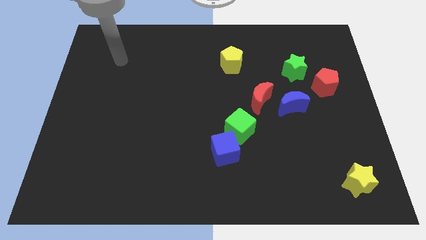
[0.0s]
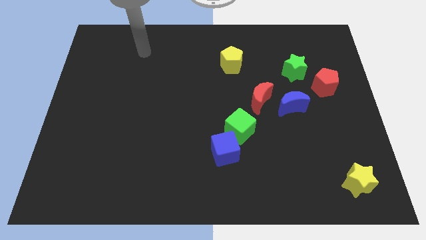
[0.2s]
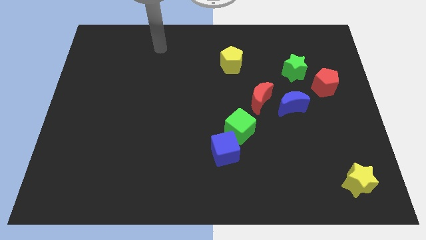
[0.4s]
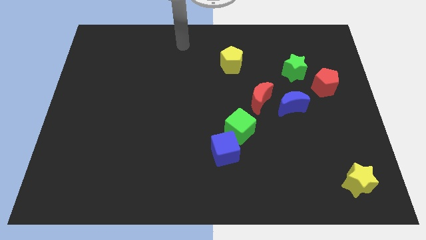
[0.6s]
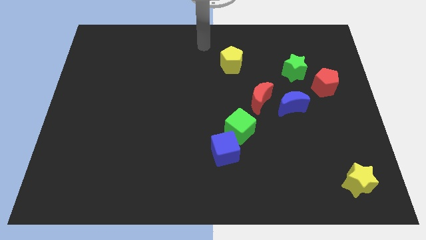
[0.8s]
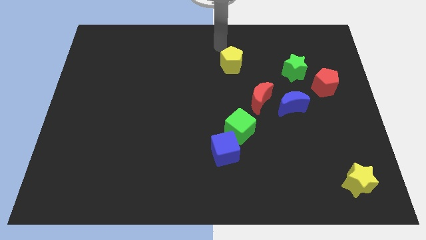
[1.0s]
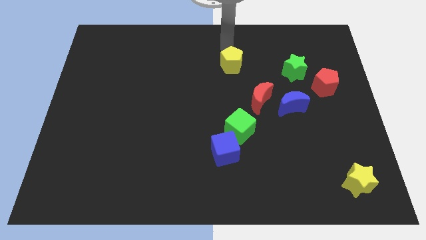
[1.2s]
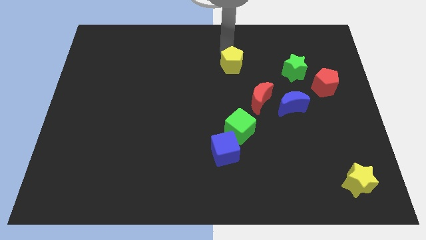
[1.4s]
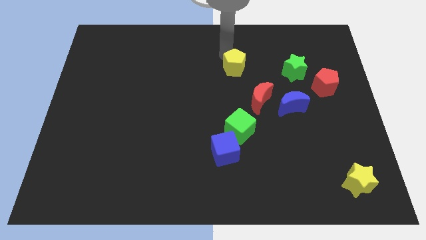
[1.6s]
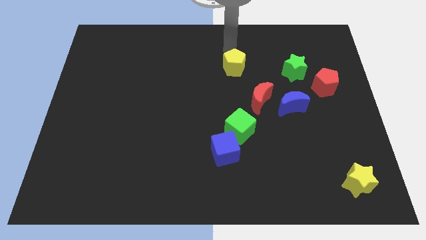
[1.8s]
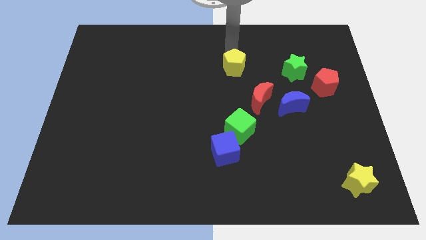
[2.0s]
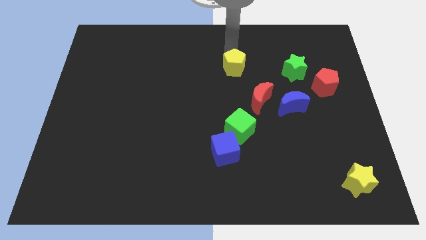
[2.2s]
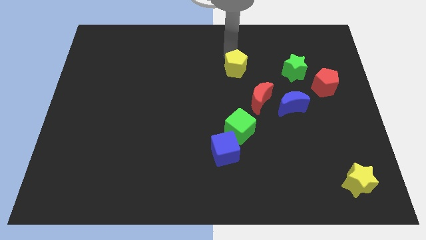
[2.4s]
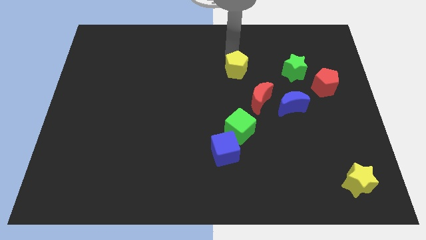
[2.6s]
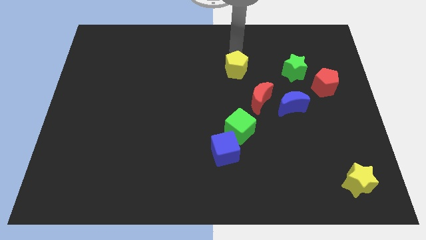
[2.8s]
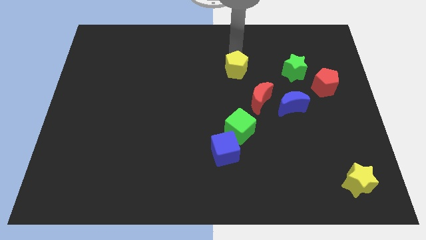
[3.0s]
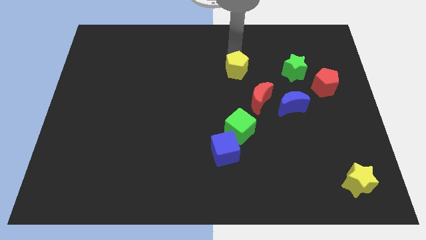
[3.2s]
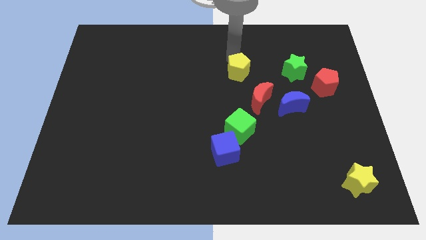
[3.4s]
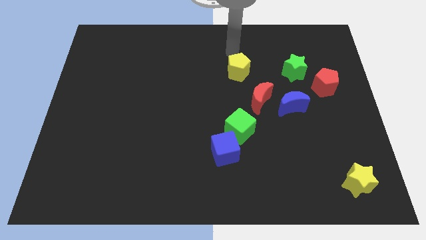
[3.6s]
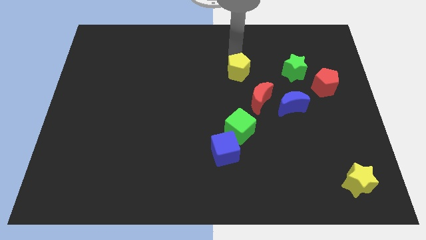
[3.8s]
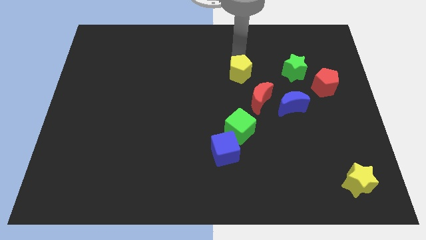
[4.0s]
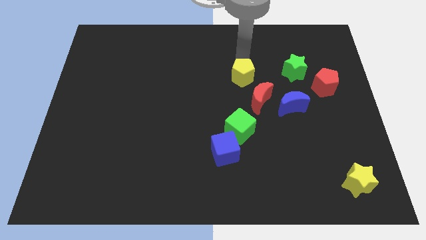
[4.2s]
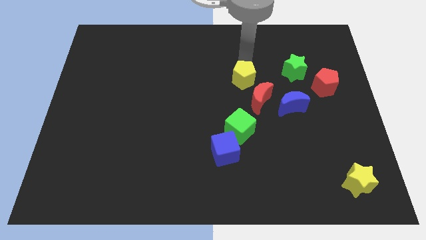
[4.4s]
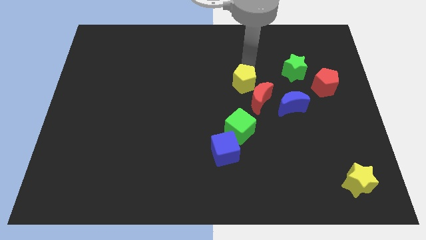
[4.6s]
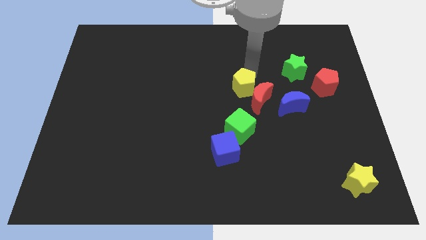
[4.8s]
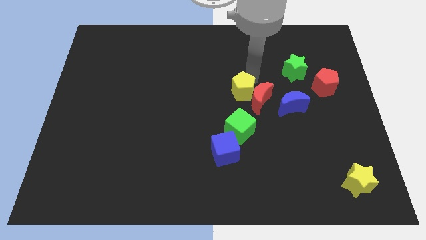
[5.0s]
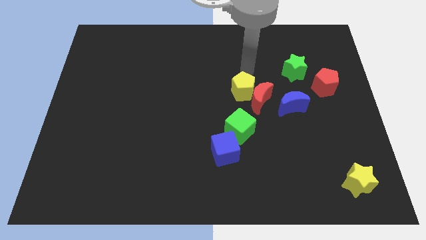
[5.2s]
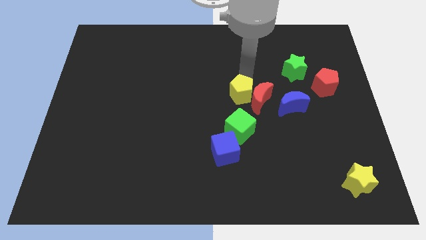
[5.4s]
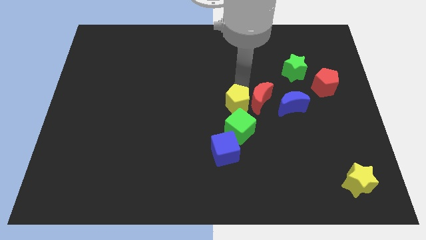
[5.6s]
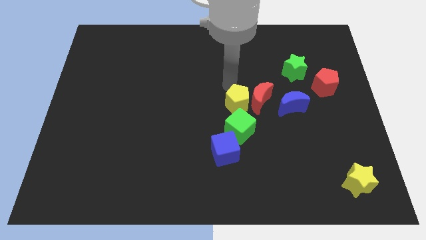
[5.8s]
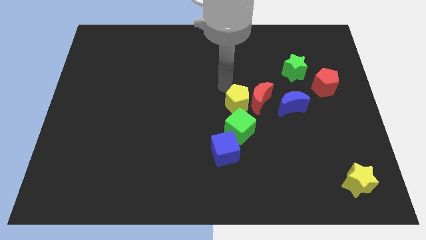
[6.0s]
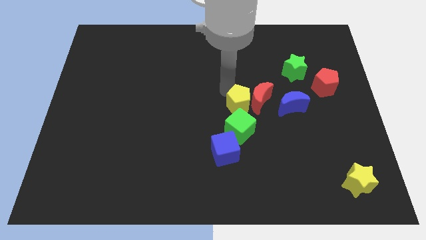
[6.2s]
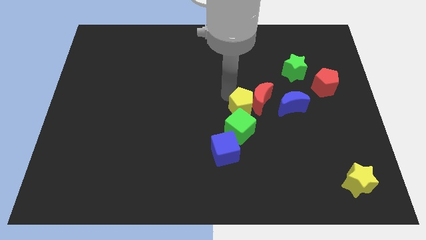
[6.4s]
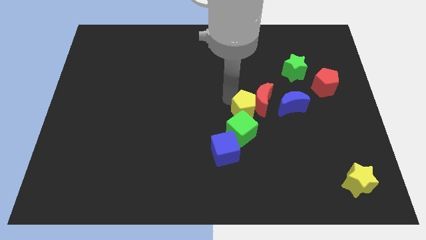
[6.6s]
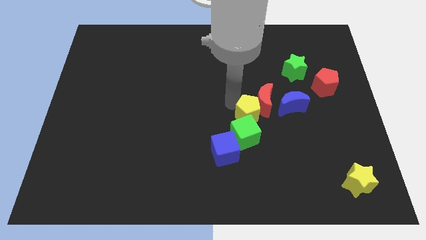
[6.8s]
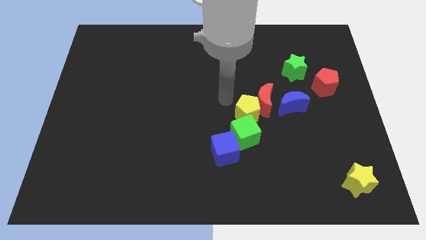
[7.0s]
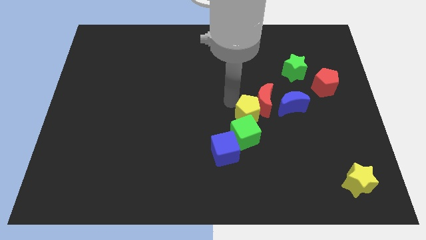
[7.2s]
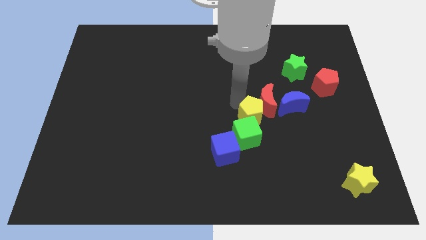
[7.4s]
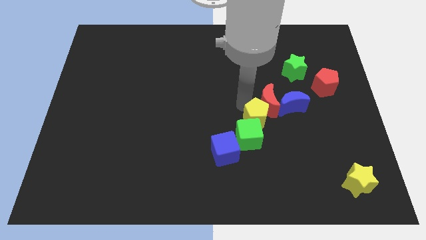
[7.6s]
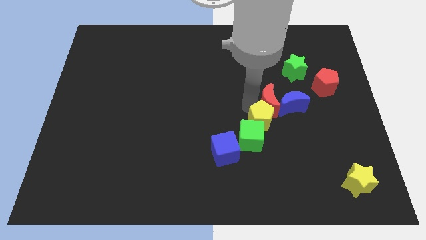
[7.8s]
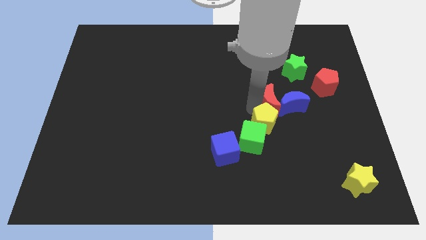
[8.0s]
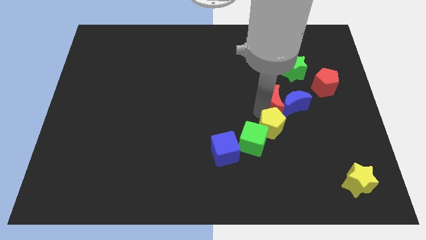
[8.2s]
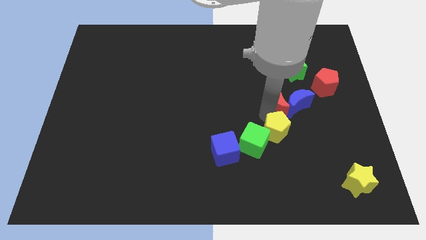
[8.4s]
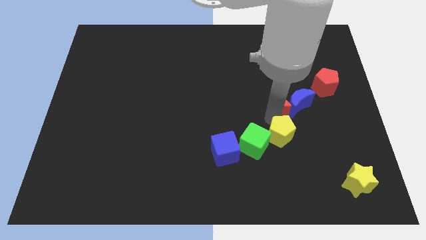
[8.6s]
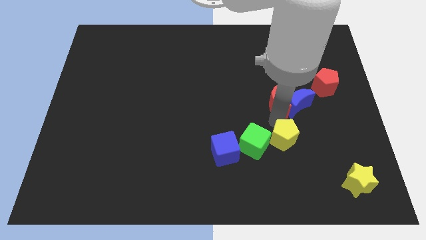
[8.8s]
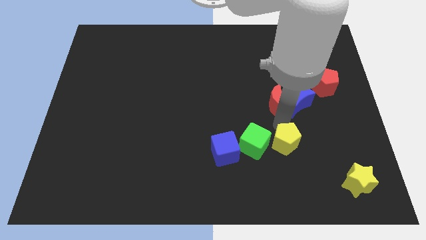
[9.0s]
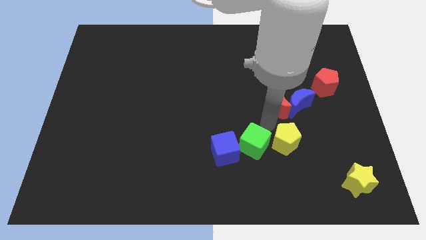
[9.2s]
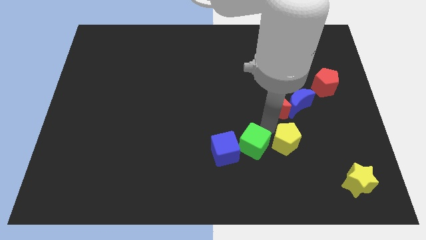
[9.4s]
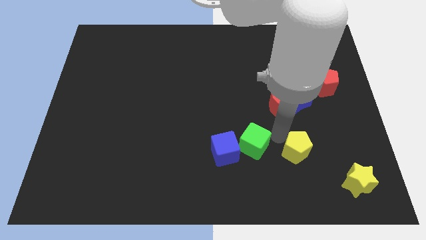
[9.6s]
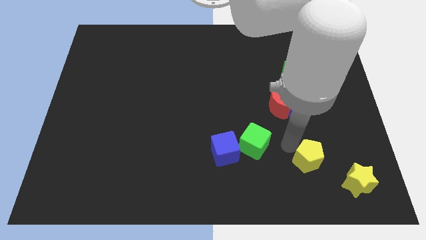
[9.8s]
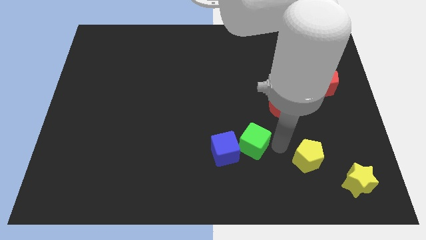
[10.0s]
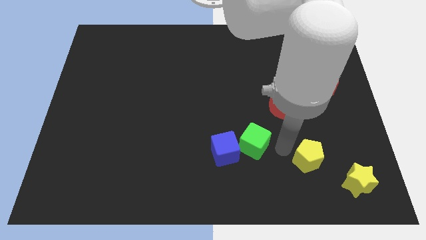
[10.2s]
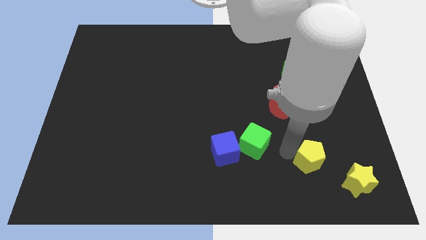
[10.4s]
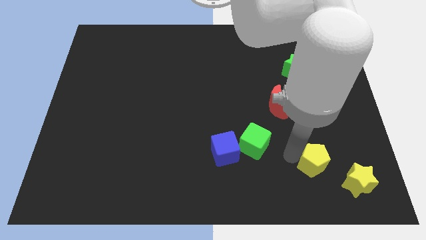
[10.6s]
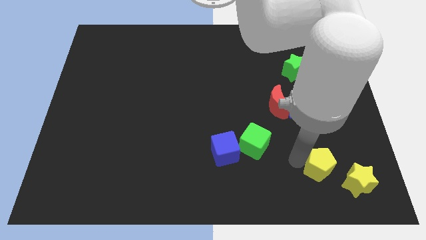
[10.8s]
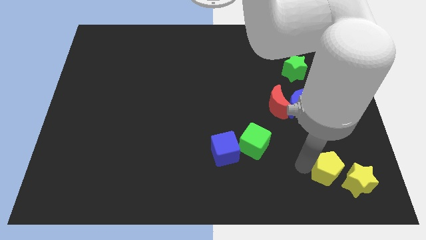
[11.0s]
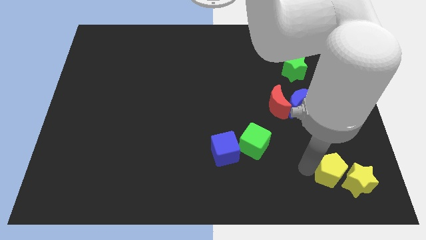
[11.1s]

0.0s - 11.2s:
slide the yellow pentagon next to the yellow star

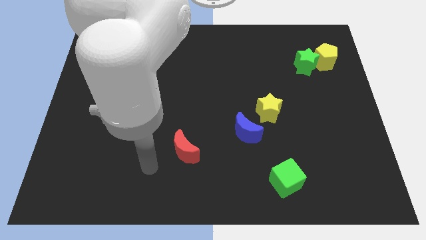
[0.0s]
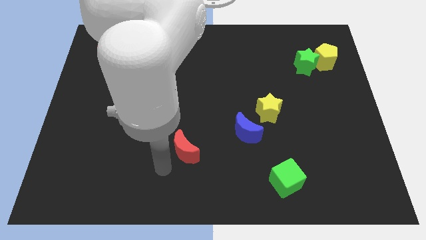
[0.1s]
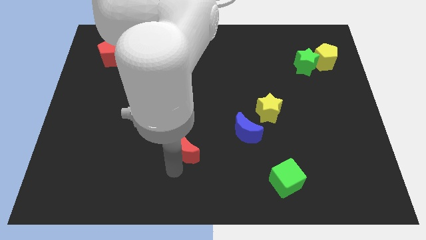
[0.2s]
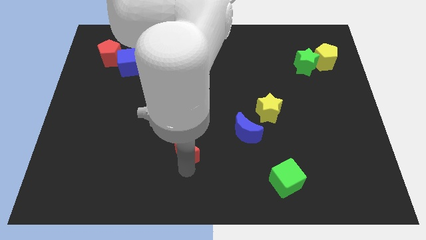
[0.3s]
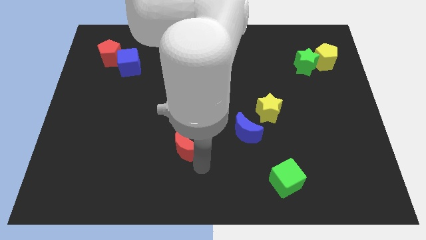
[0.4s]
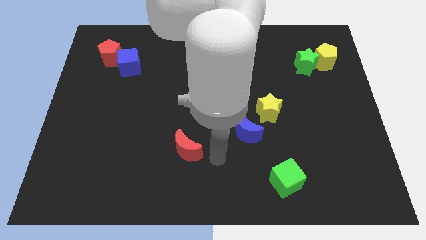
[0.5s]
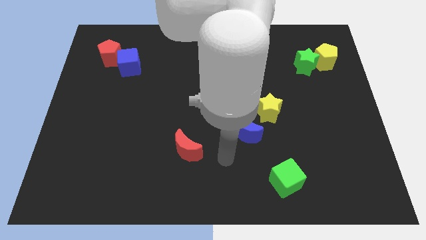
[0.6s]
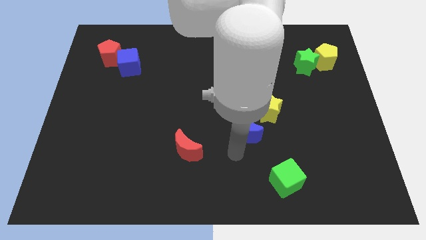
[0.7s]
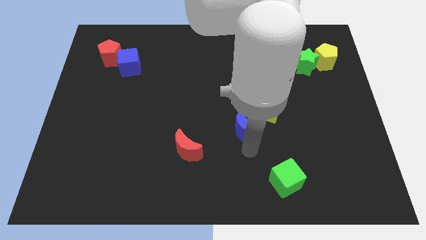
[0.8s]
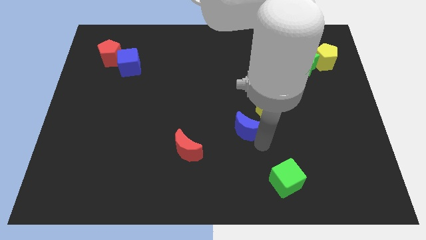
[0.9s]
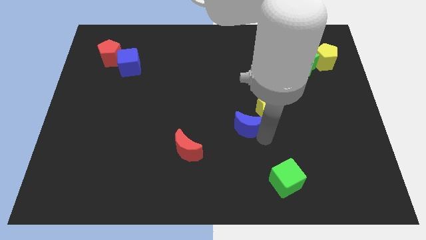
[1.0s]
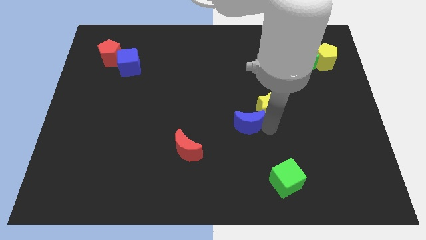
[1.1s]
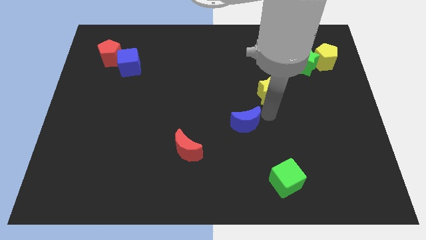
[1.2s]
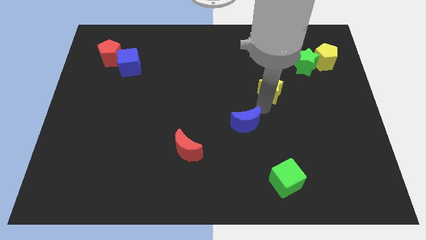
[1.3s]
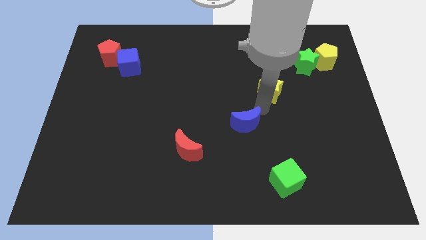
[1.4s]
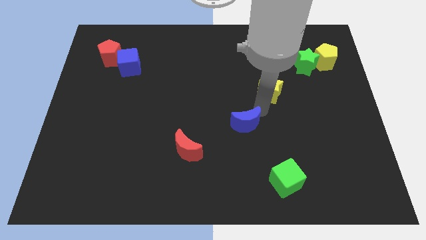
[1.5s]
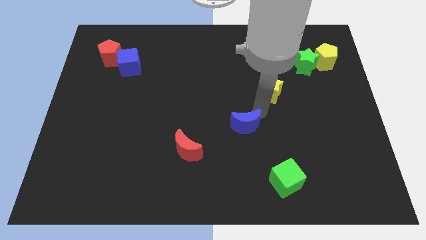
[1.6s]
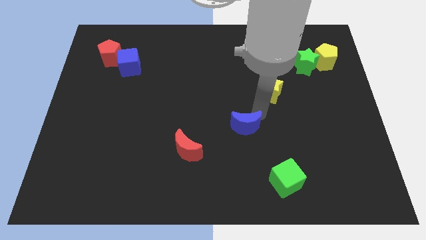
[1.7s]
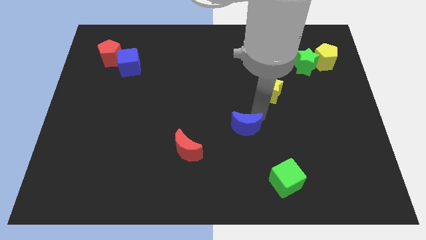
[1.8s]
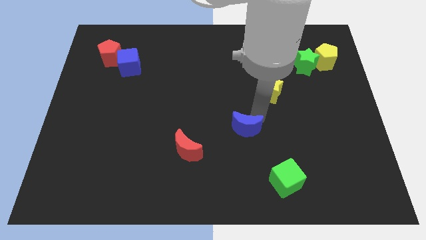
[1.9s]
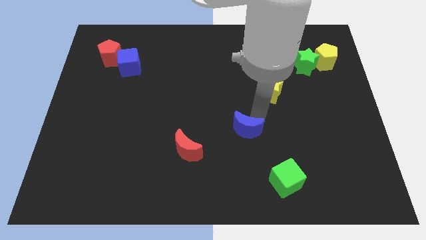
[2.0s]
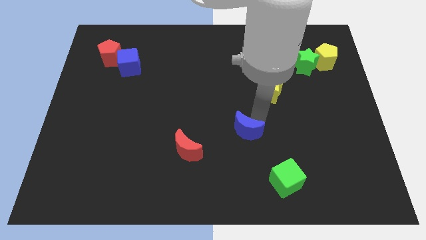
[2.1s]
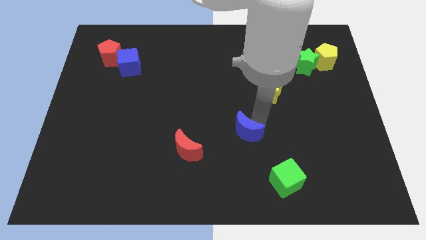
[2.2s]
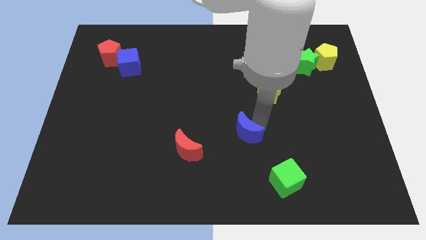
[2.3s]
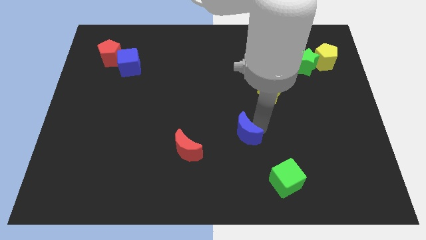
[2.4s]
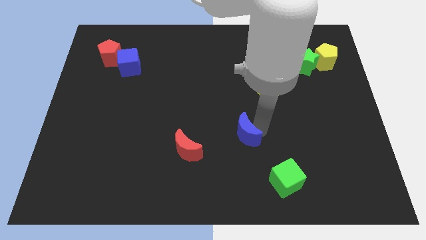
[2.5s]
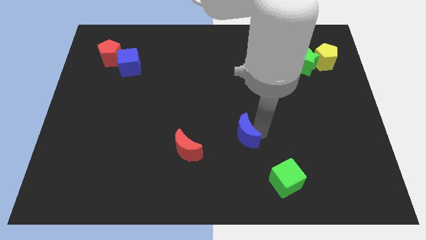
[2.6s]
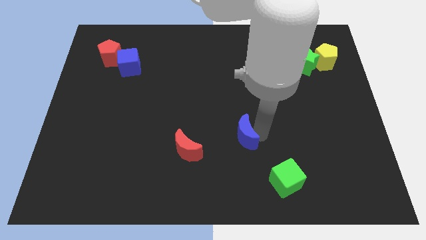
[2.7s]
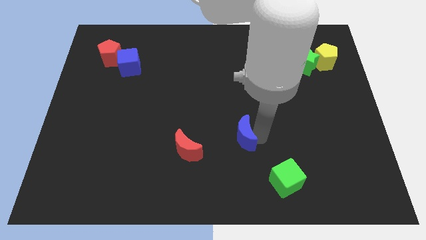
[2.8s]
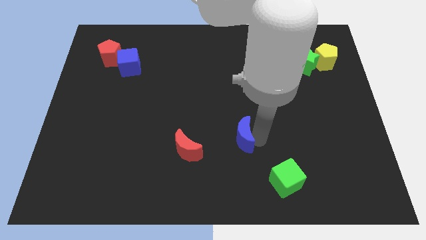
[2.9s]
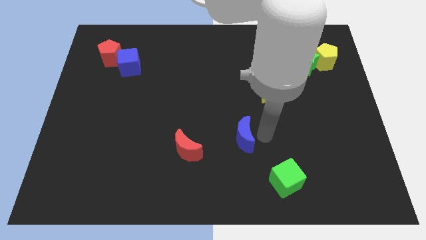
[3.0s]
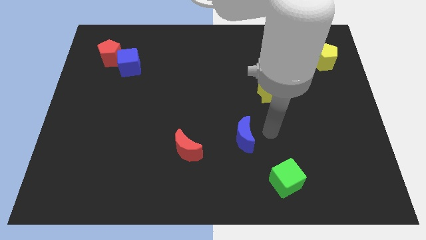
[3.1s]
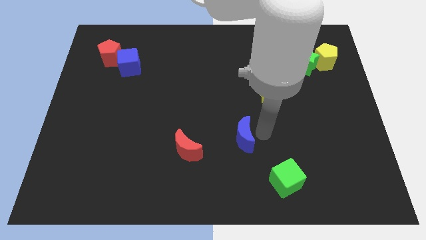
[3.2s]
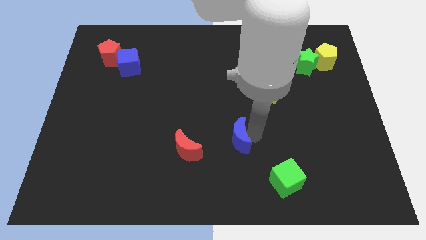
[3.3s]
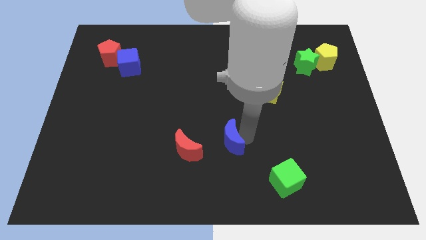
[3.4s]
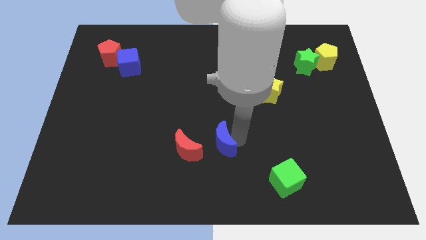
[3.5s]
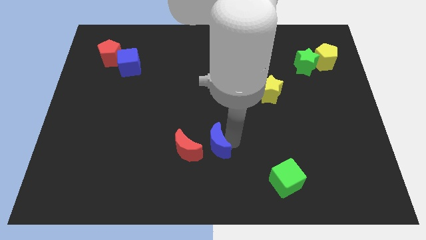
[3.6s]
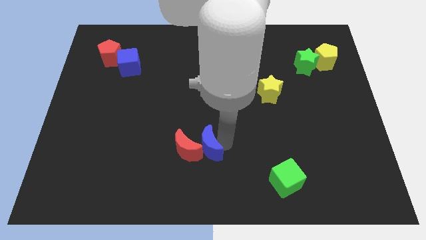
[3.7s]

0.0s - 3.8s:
slide the blue moon towards the red moon
